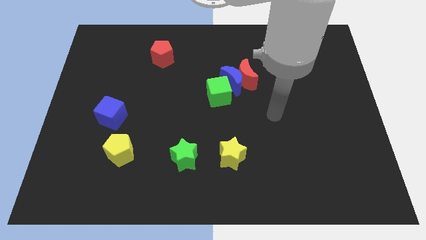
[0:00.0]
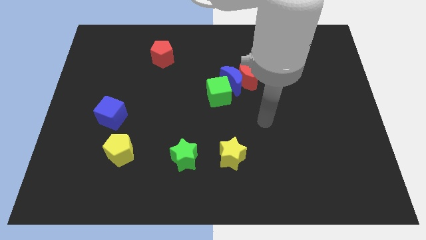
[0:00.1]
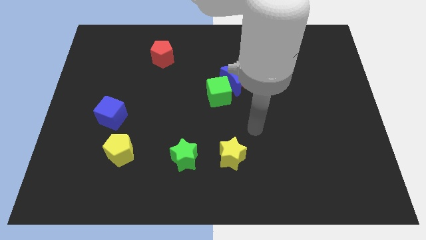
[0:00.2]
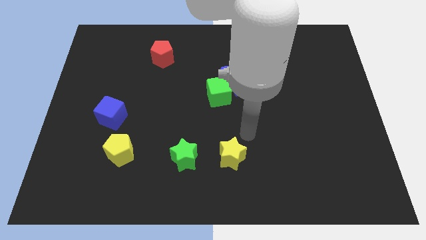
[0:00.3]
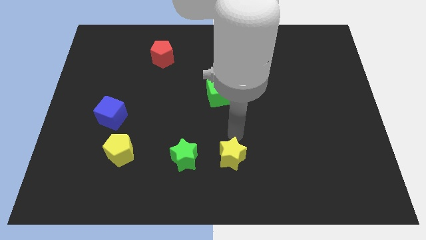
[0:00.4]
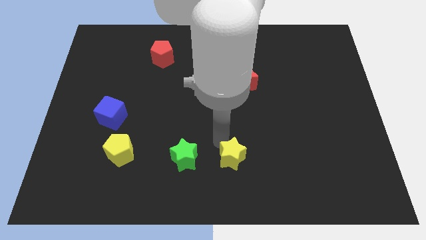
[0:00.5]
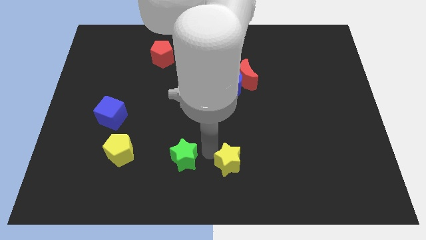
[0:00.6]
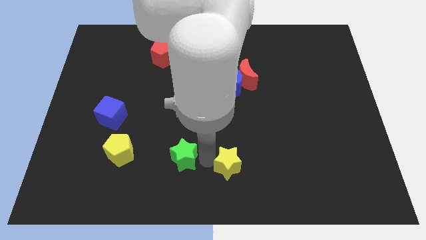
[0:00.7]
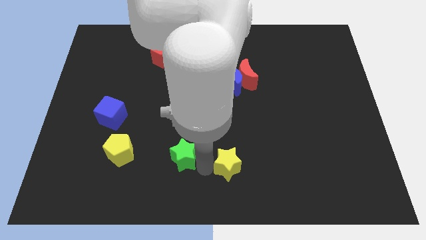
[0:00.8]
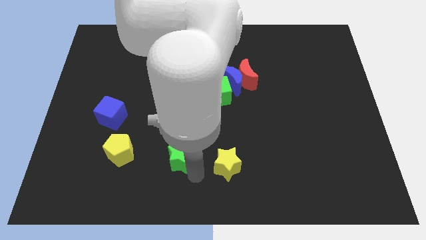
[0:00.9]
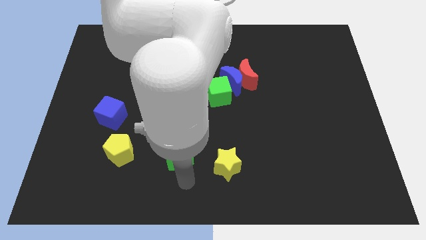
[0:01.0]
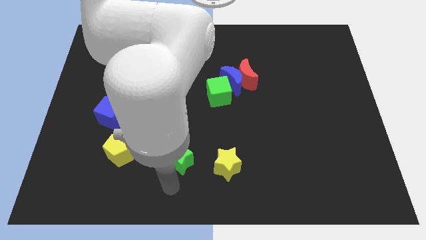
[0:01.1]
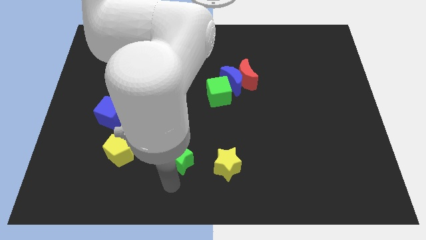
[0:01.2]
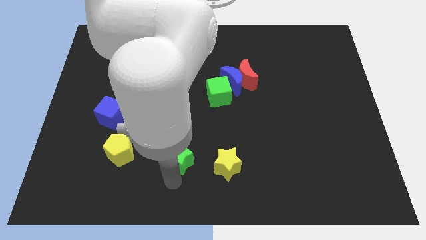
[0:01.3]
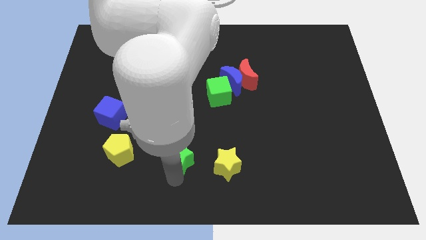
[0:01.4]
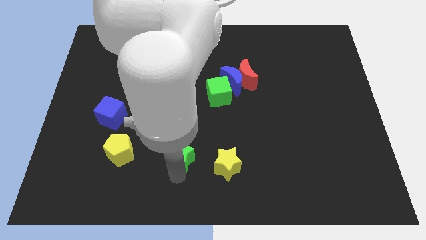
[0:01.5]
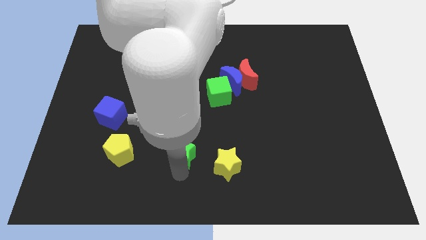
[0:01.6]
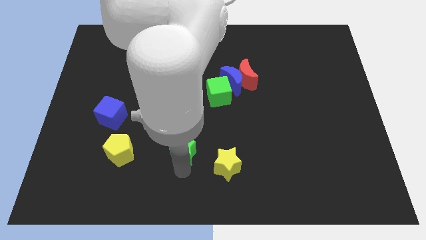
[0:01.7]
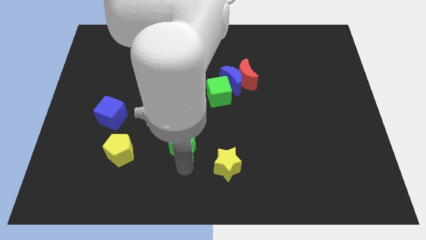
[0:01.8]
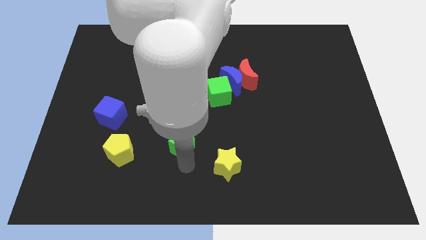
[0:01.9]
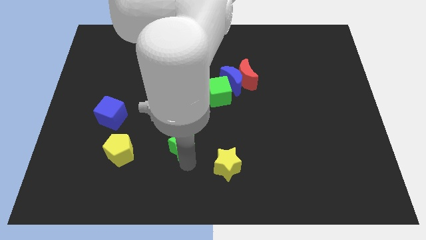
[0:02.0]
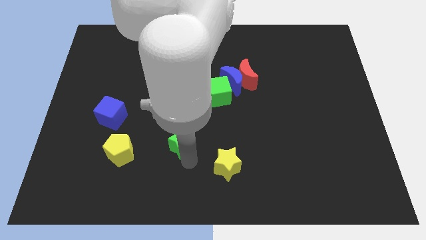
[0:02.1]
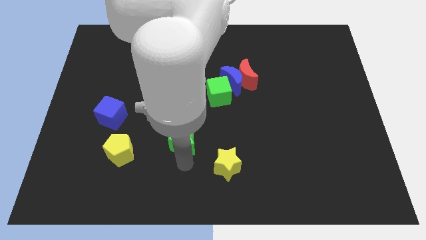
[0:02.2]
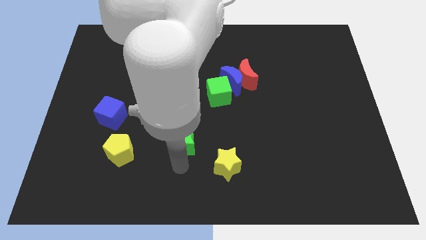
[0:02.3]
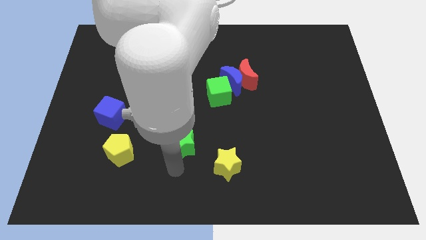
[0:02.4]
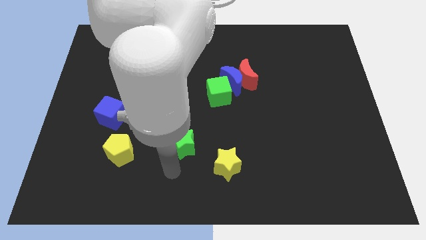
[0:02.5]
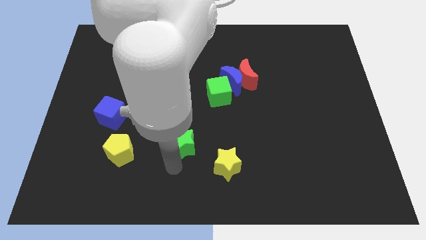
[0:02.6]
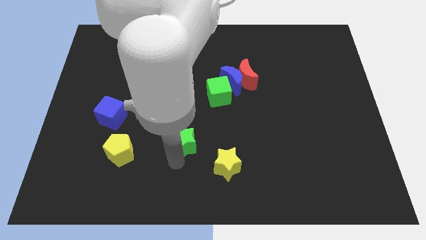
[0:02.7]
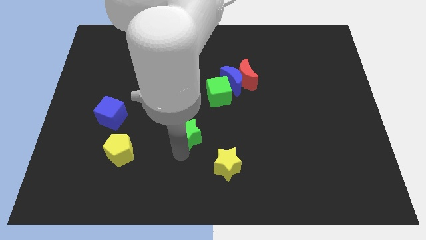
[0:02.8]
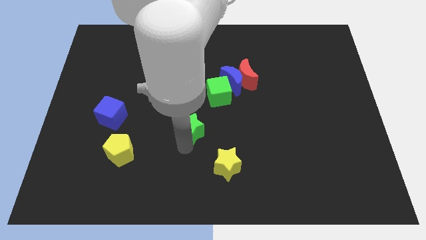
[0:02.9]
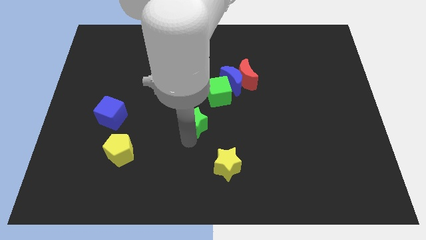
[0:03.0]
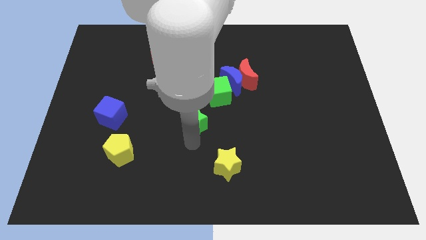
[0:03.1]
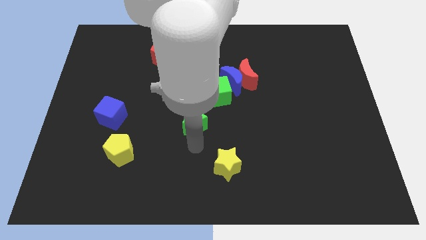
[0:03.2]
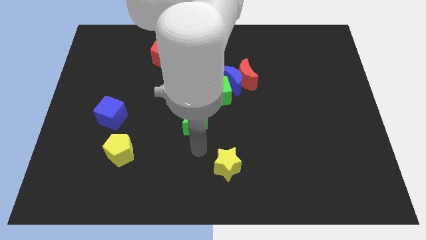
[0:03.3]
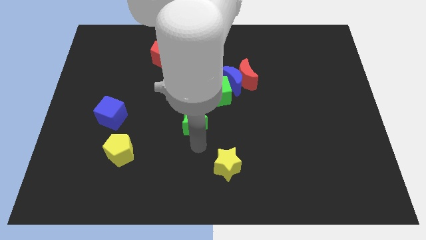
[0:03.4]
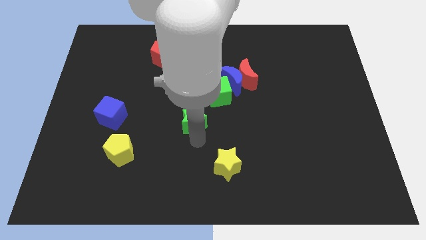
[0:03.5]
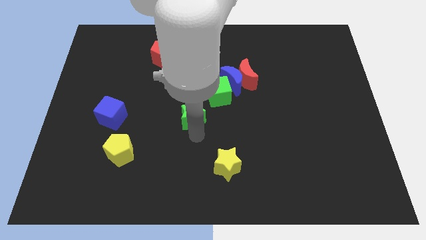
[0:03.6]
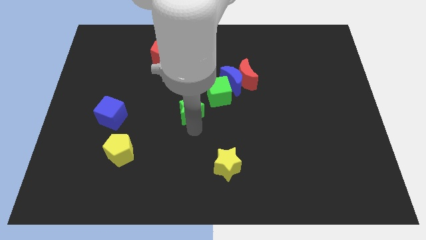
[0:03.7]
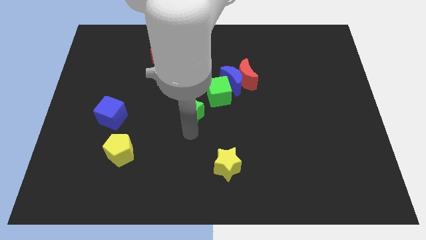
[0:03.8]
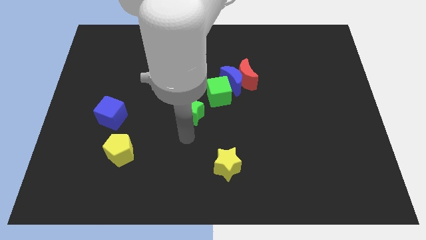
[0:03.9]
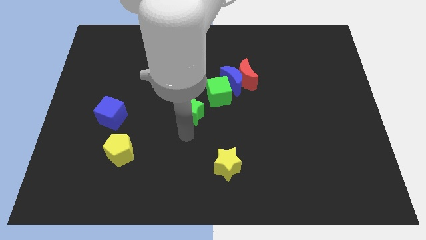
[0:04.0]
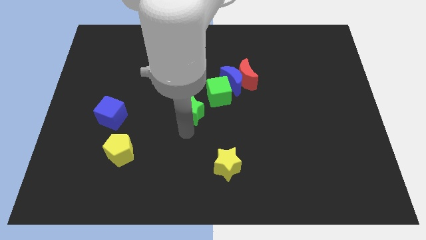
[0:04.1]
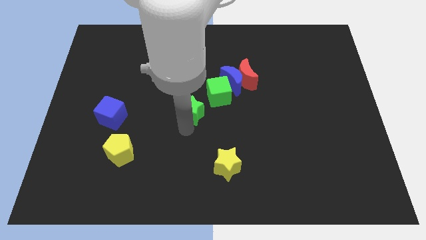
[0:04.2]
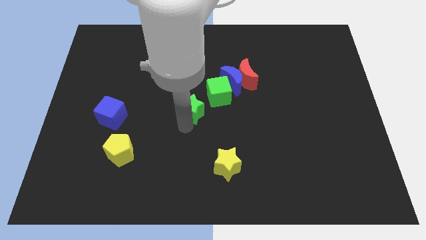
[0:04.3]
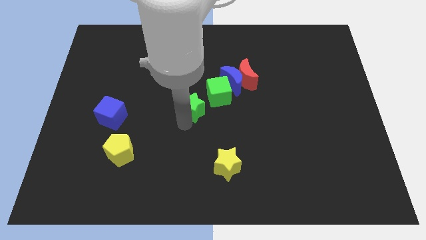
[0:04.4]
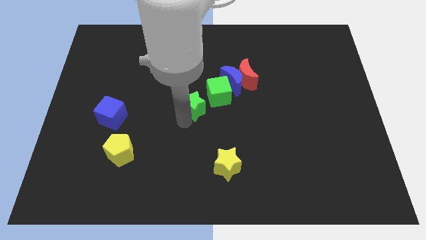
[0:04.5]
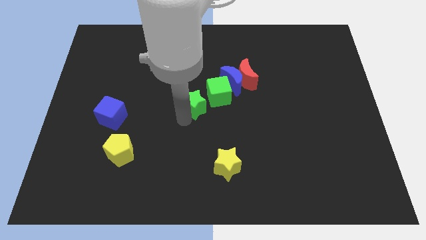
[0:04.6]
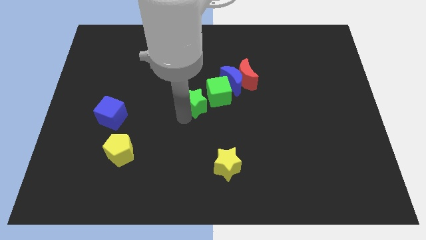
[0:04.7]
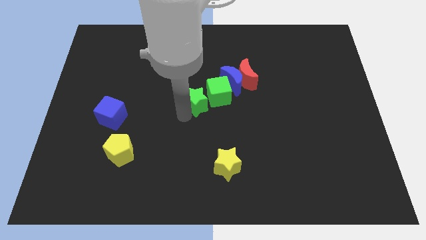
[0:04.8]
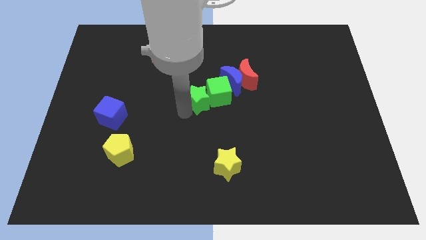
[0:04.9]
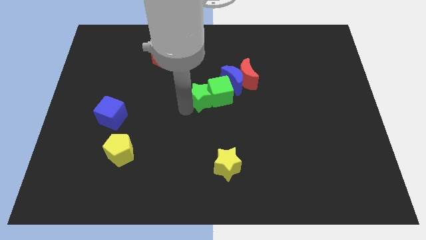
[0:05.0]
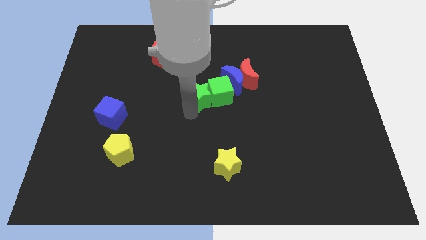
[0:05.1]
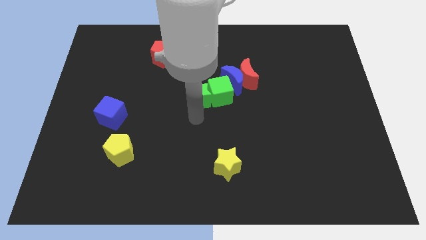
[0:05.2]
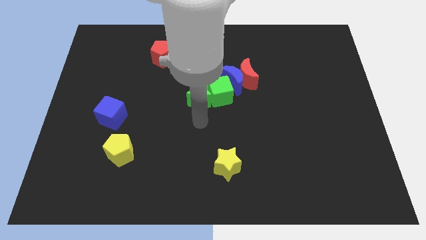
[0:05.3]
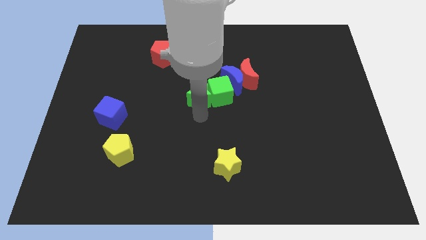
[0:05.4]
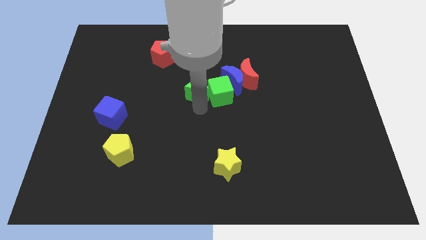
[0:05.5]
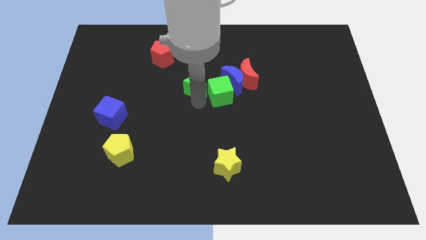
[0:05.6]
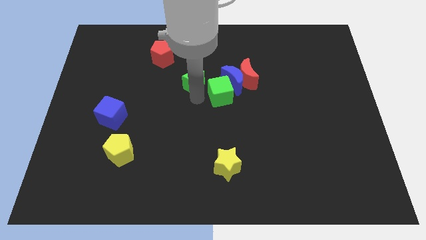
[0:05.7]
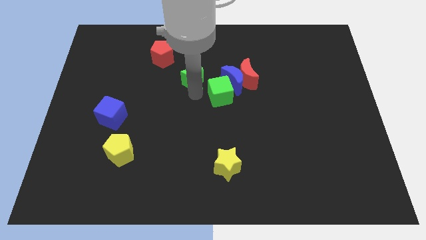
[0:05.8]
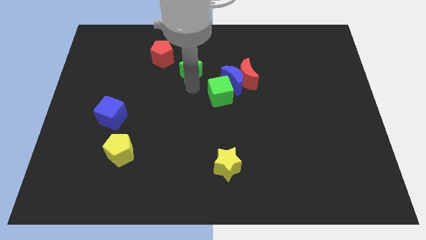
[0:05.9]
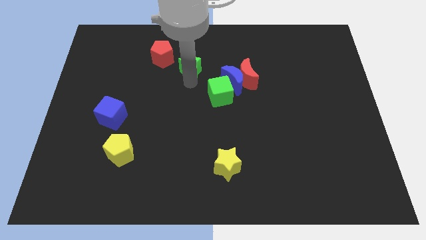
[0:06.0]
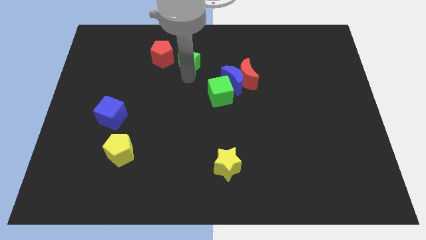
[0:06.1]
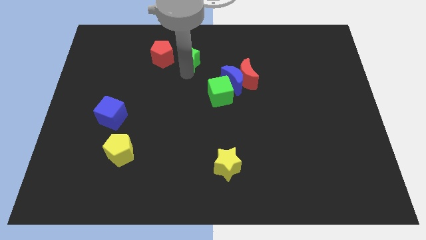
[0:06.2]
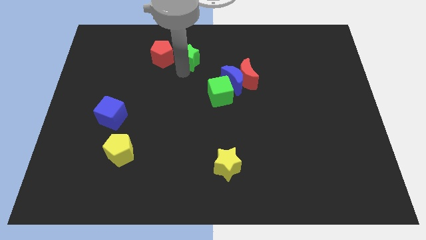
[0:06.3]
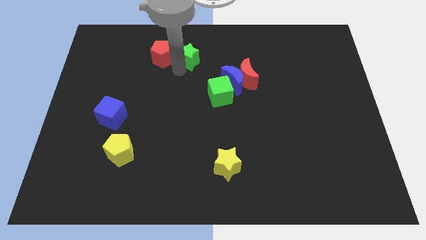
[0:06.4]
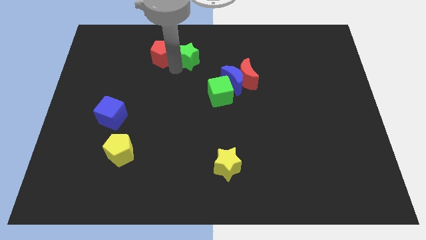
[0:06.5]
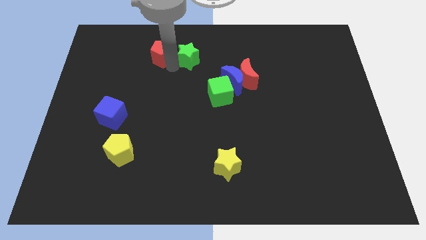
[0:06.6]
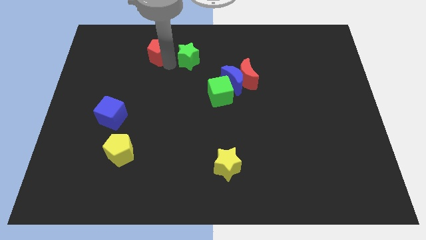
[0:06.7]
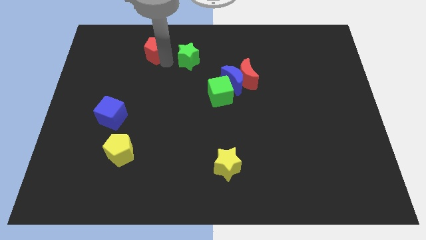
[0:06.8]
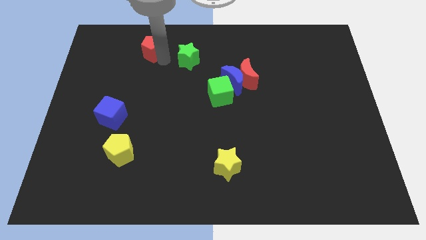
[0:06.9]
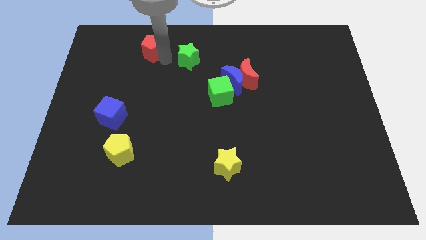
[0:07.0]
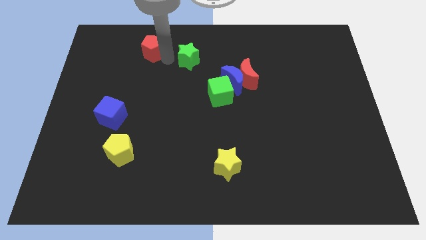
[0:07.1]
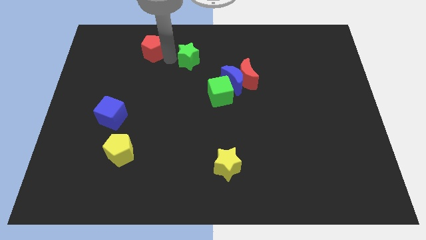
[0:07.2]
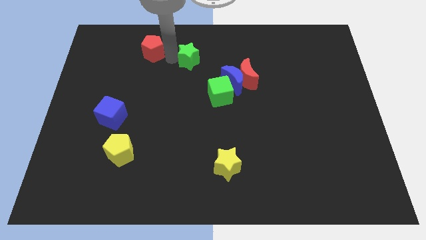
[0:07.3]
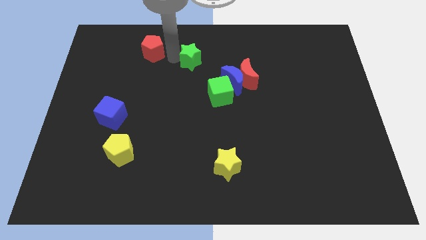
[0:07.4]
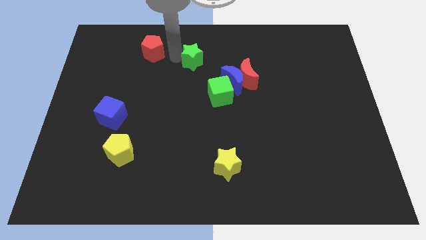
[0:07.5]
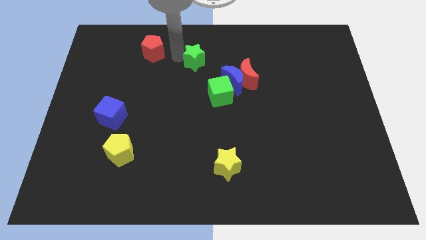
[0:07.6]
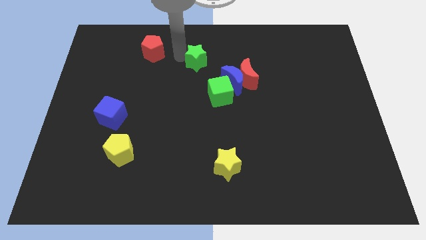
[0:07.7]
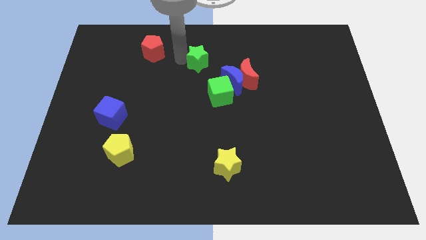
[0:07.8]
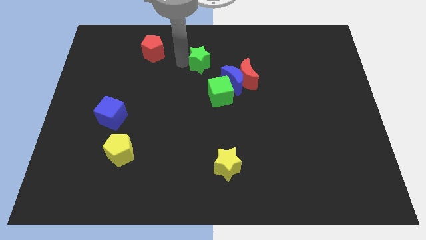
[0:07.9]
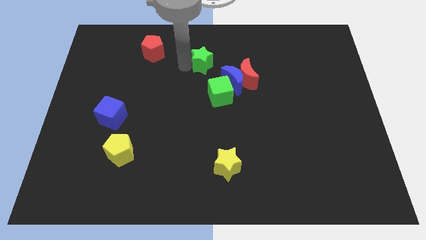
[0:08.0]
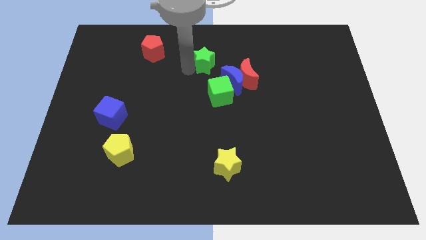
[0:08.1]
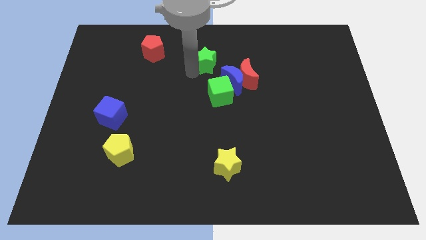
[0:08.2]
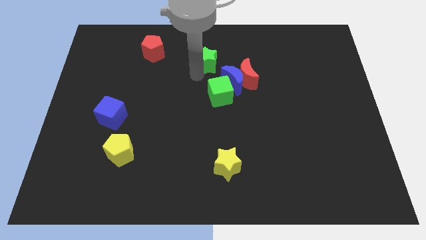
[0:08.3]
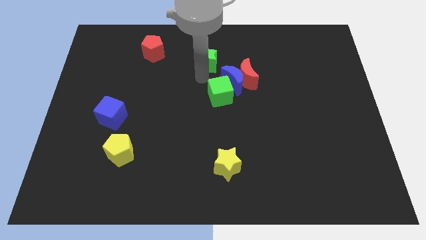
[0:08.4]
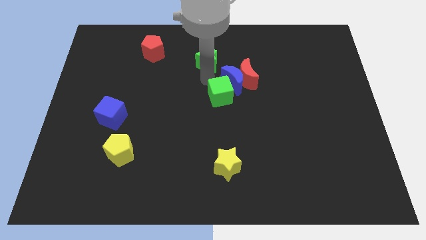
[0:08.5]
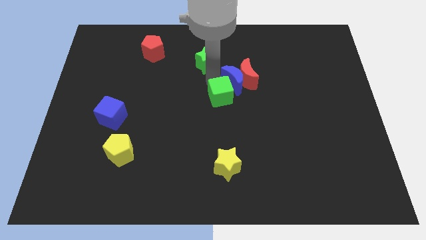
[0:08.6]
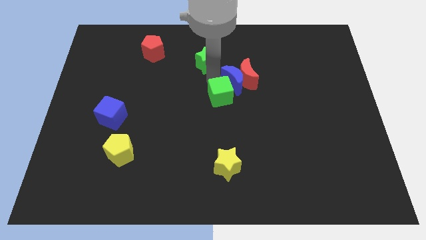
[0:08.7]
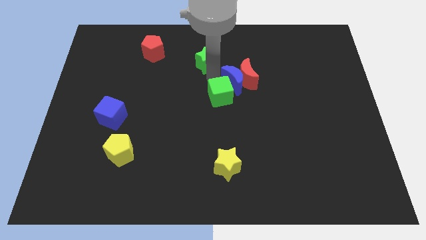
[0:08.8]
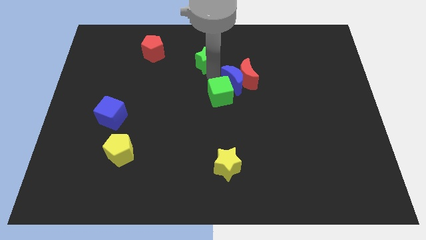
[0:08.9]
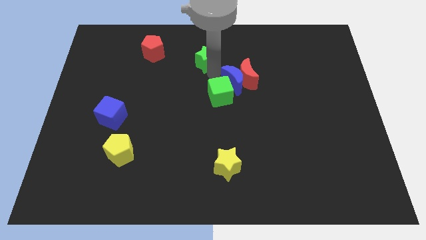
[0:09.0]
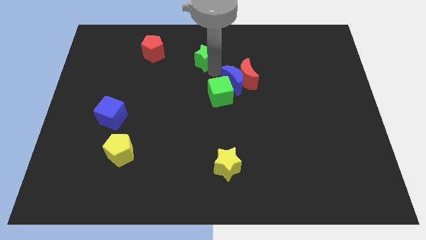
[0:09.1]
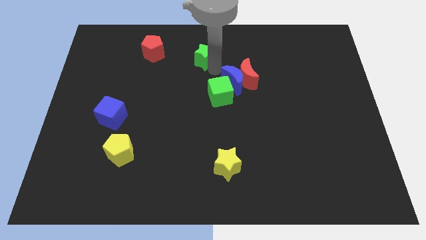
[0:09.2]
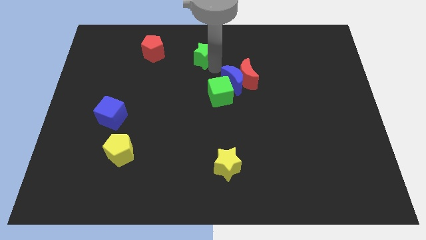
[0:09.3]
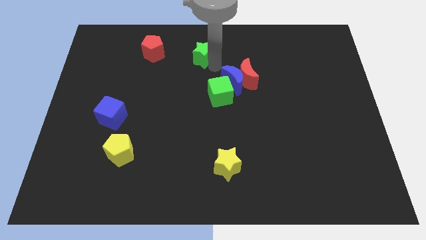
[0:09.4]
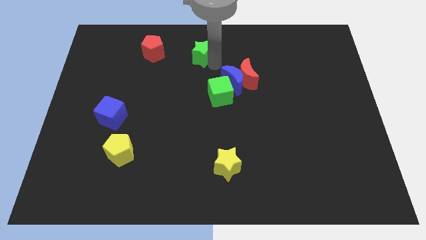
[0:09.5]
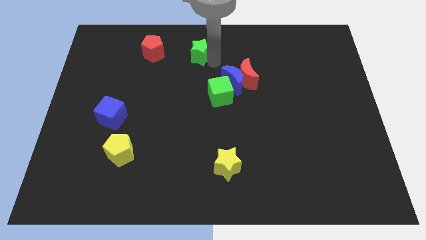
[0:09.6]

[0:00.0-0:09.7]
slide the green star to the towards your base
